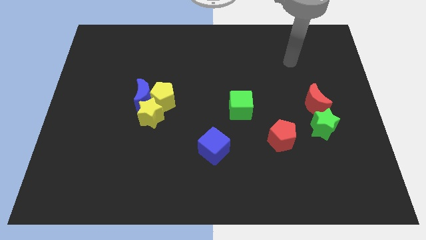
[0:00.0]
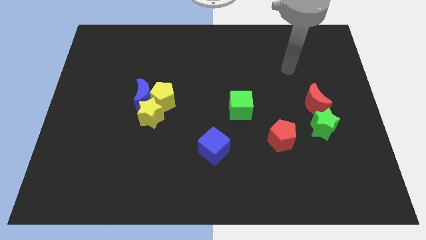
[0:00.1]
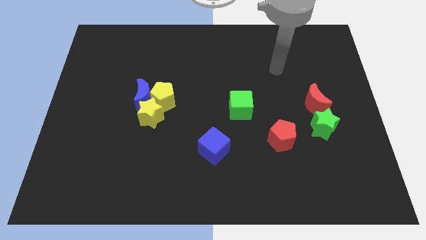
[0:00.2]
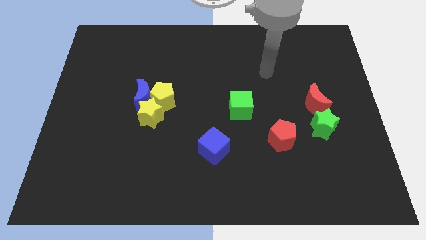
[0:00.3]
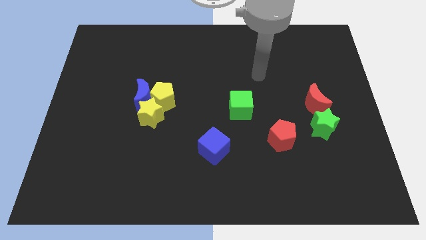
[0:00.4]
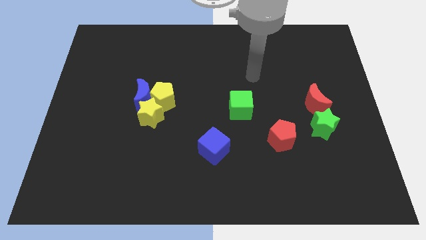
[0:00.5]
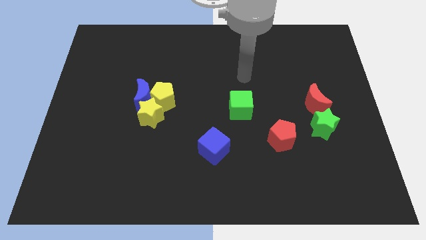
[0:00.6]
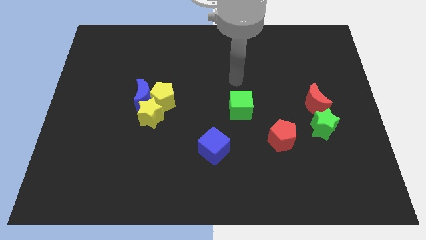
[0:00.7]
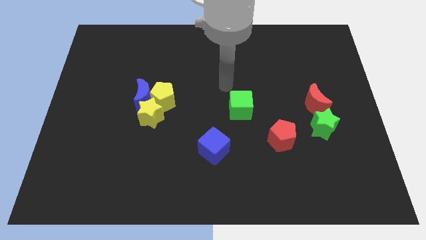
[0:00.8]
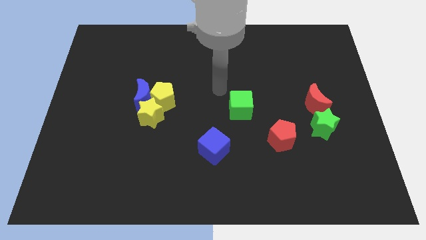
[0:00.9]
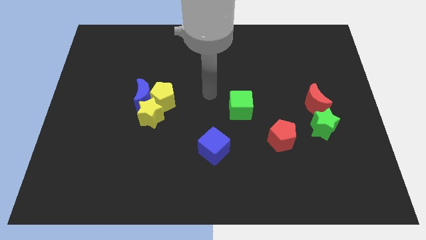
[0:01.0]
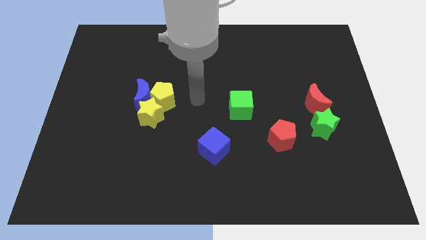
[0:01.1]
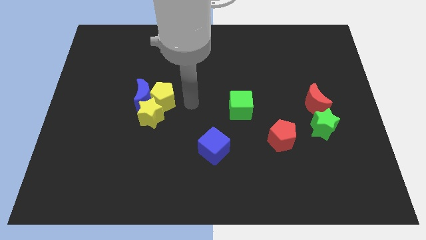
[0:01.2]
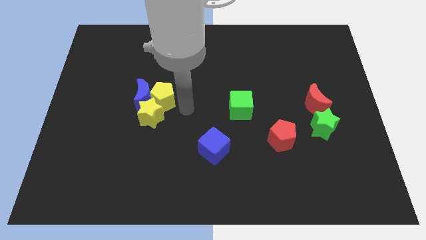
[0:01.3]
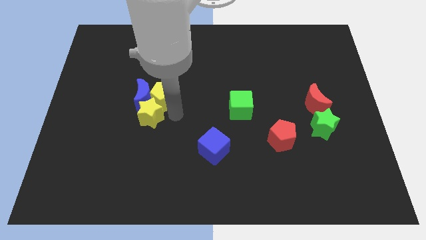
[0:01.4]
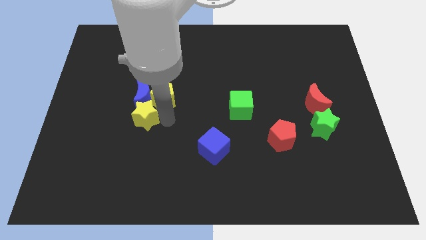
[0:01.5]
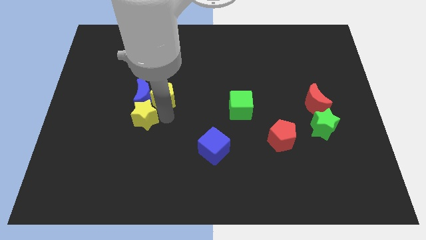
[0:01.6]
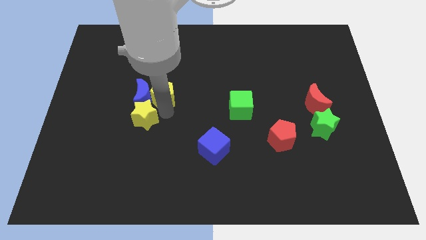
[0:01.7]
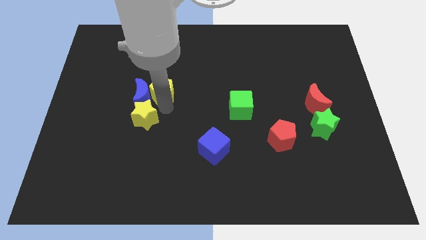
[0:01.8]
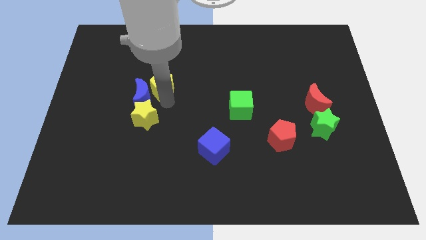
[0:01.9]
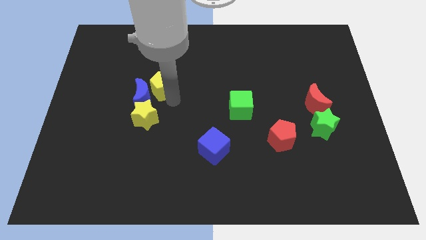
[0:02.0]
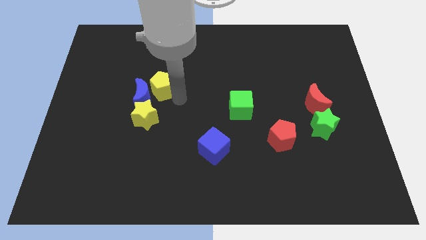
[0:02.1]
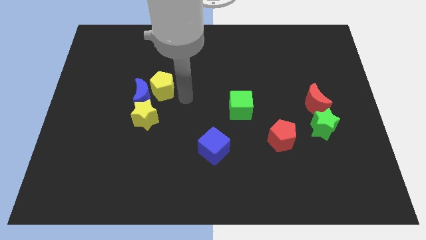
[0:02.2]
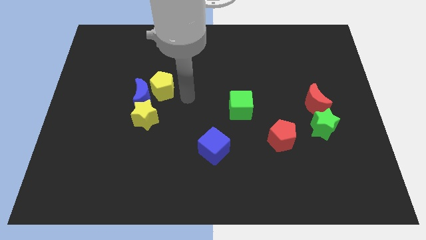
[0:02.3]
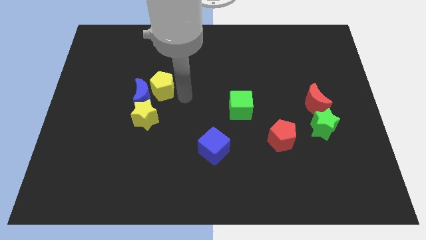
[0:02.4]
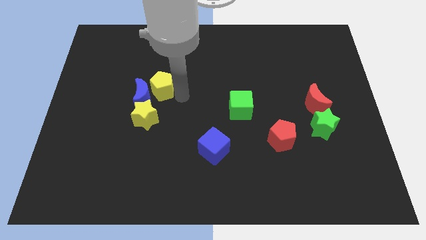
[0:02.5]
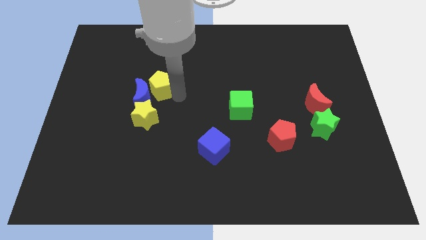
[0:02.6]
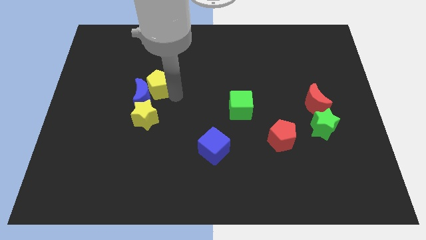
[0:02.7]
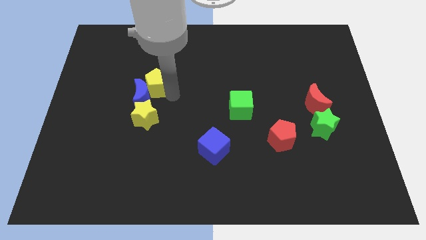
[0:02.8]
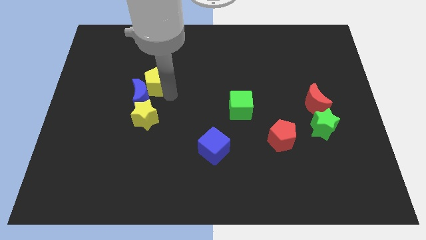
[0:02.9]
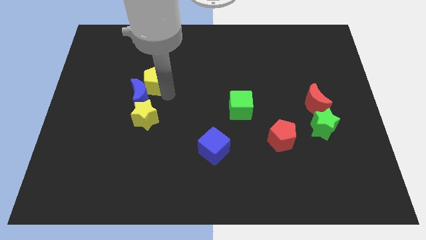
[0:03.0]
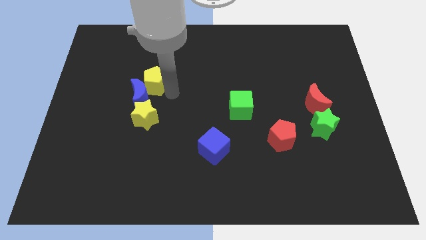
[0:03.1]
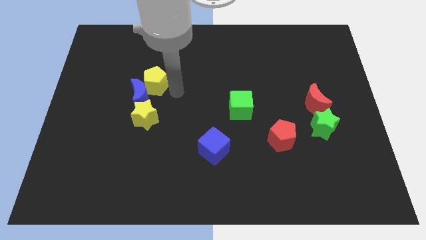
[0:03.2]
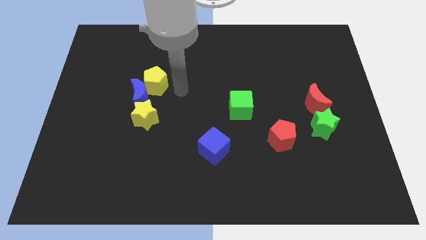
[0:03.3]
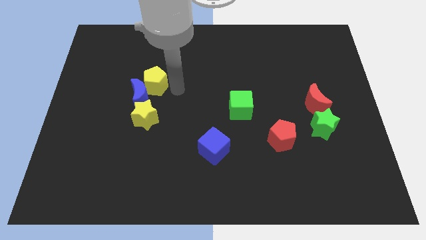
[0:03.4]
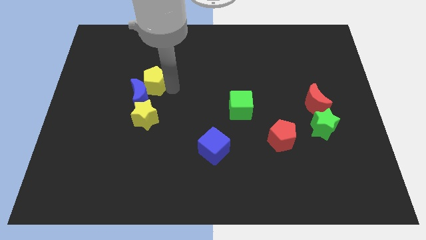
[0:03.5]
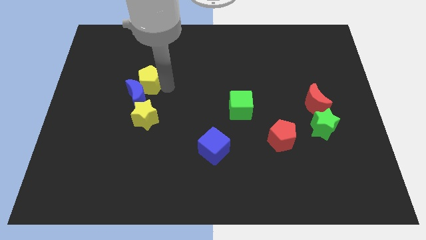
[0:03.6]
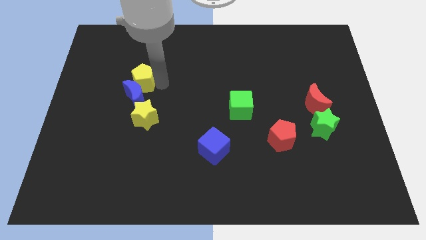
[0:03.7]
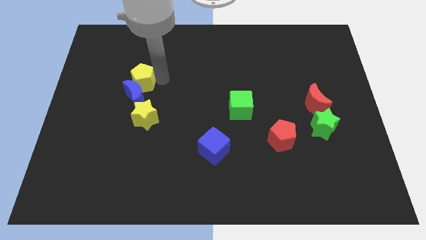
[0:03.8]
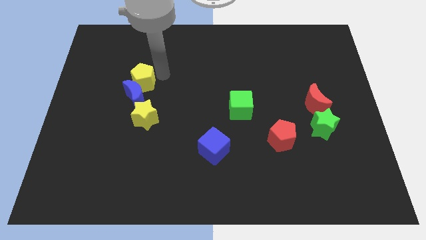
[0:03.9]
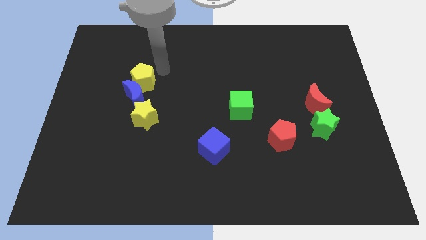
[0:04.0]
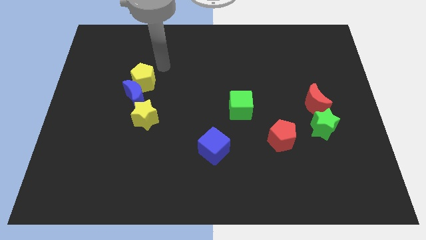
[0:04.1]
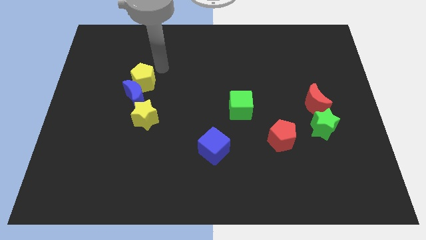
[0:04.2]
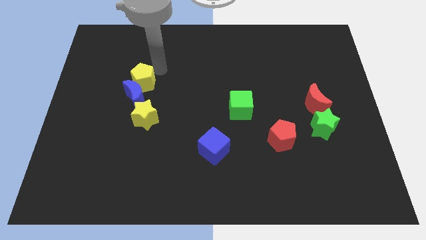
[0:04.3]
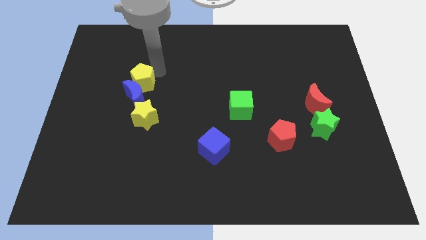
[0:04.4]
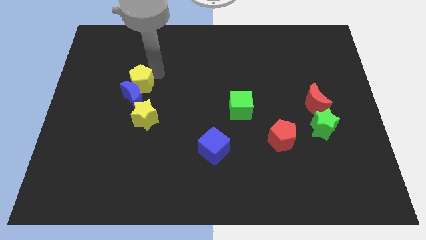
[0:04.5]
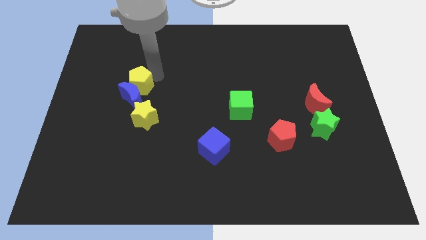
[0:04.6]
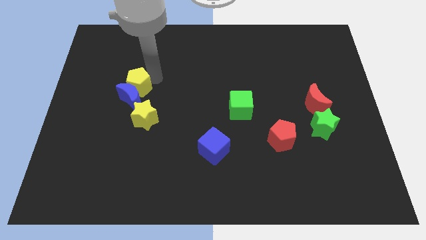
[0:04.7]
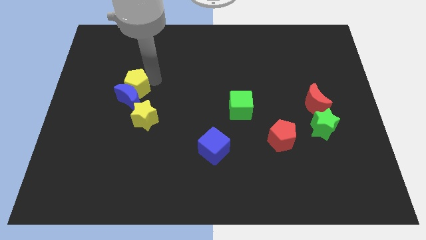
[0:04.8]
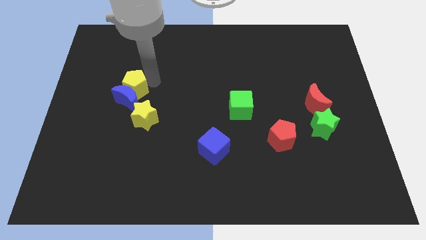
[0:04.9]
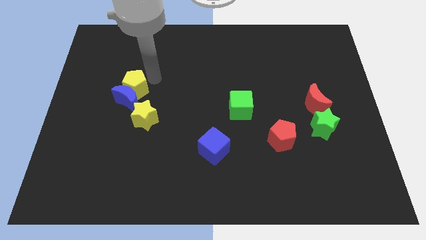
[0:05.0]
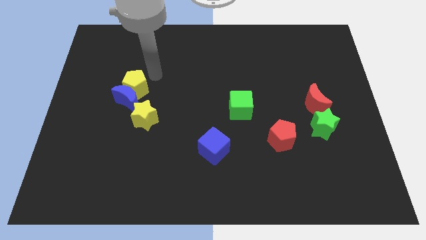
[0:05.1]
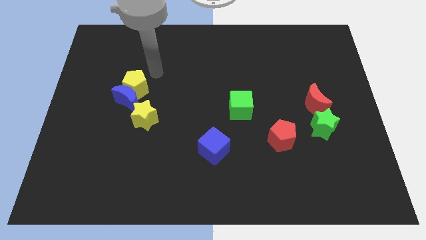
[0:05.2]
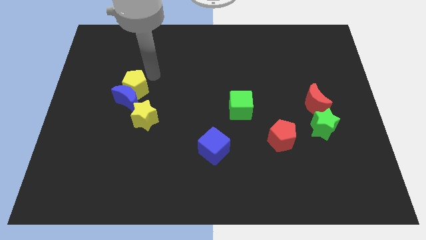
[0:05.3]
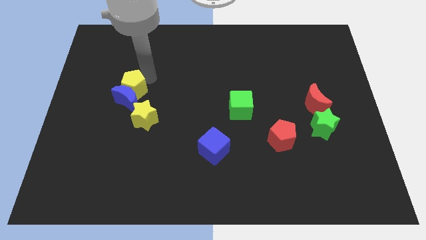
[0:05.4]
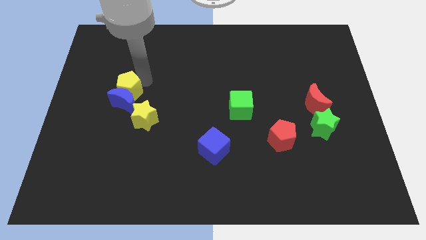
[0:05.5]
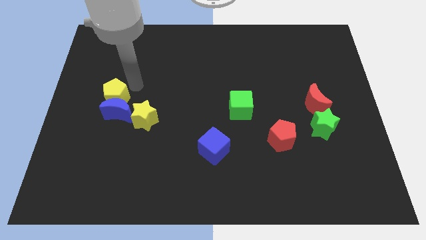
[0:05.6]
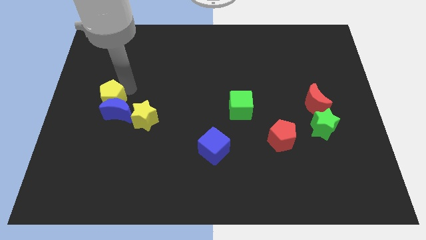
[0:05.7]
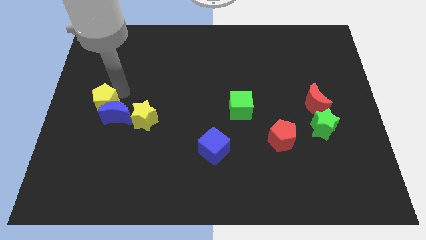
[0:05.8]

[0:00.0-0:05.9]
put the yellow pentagon to the left of the yellow star
